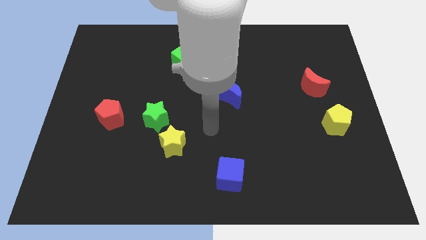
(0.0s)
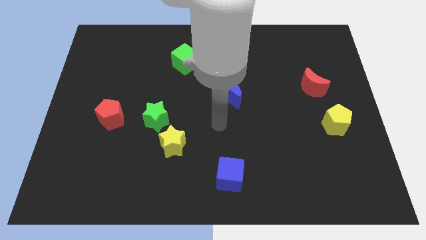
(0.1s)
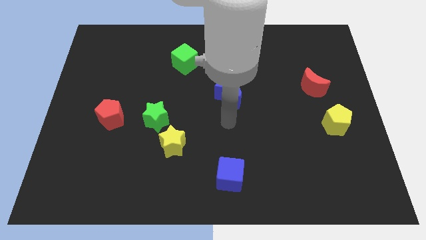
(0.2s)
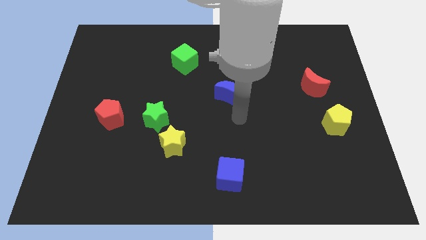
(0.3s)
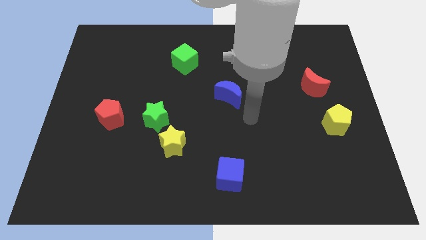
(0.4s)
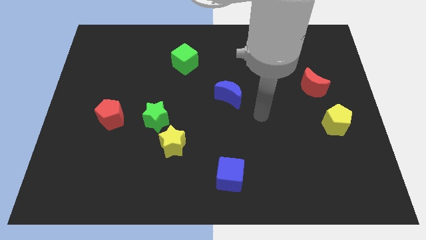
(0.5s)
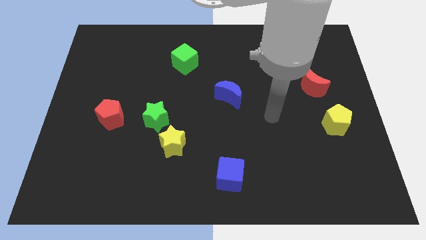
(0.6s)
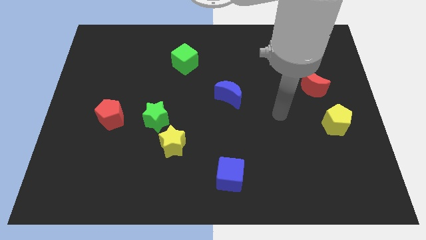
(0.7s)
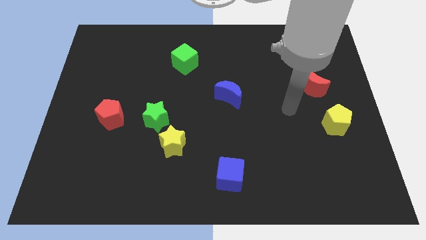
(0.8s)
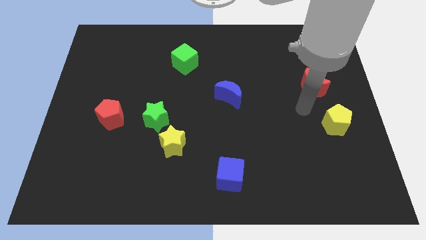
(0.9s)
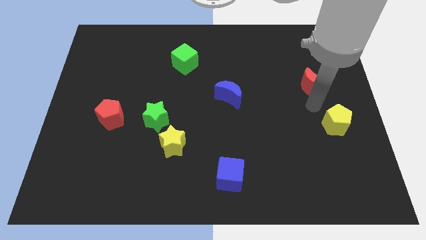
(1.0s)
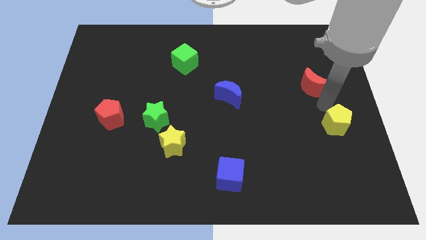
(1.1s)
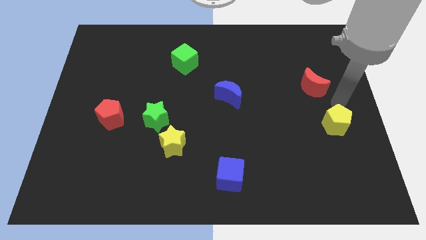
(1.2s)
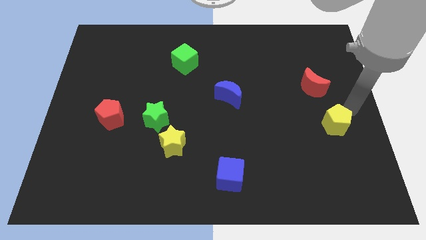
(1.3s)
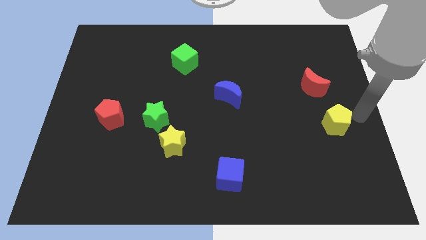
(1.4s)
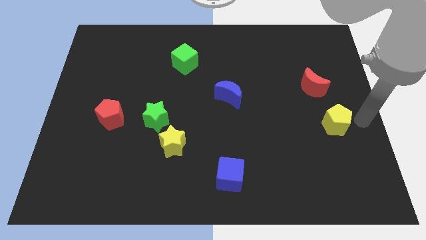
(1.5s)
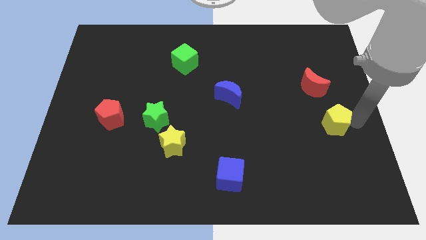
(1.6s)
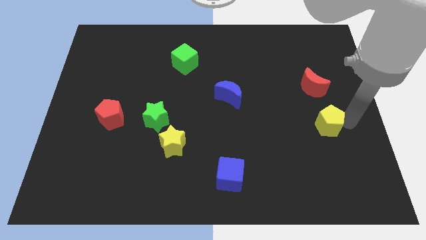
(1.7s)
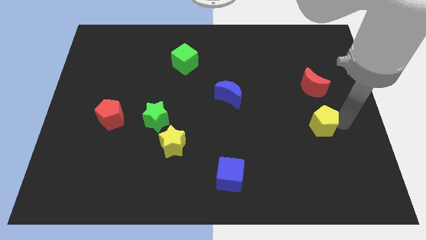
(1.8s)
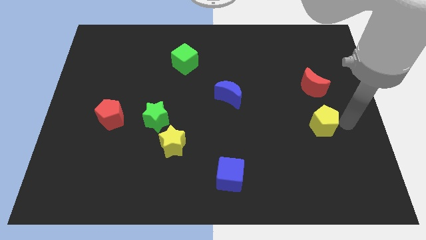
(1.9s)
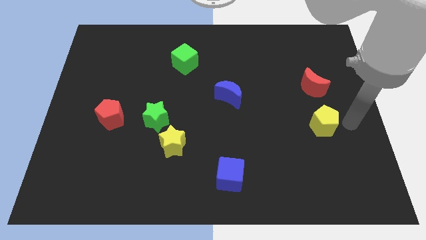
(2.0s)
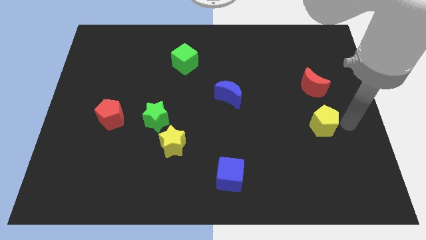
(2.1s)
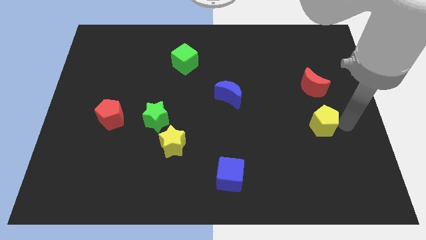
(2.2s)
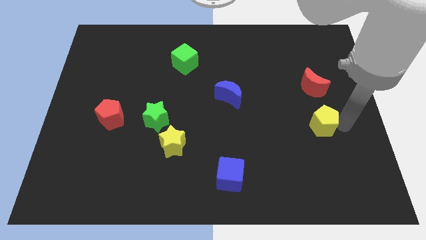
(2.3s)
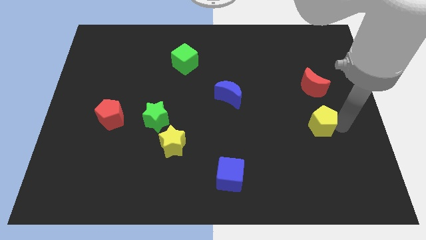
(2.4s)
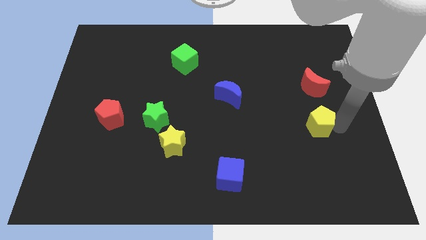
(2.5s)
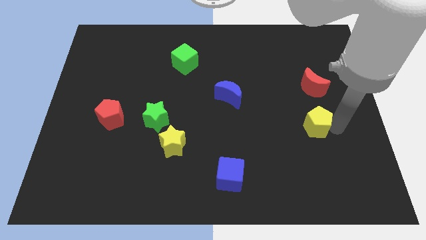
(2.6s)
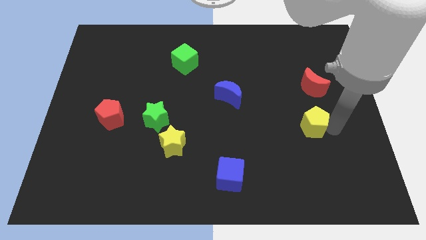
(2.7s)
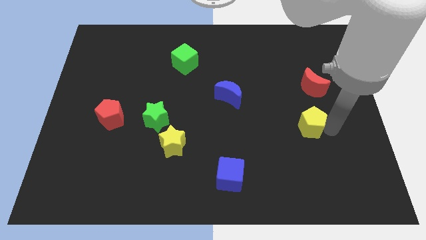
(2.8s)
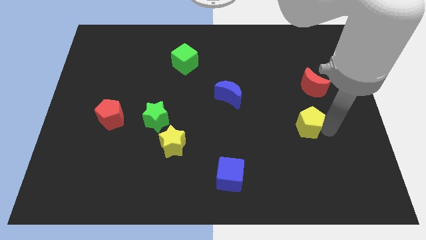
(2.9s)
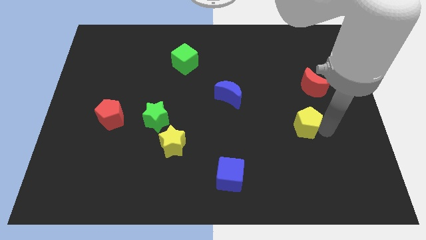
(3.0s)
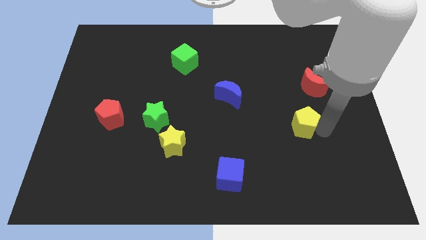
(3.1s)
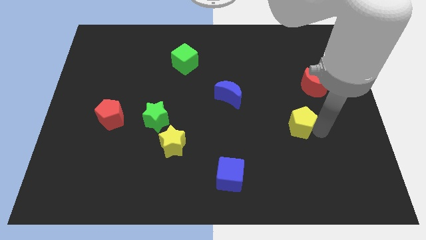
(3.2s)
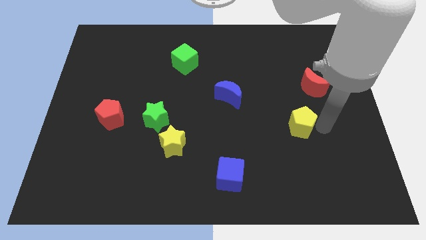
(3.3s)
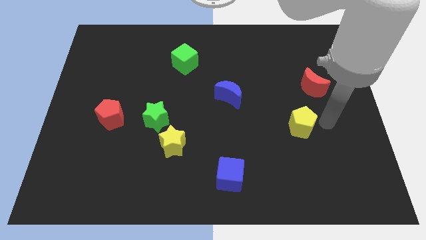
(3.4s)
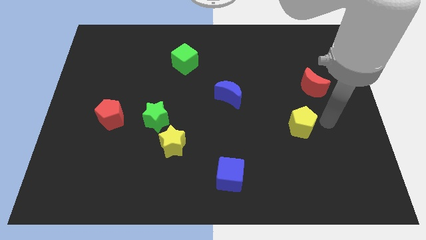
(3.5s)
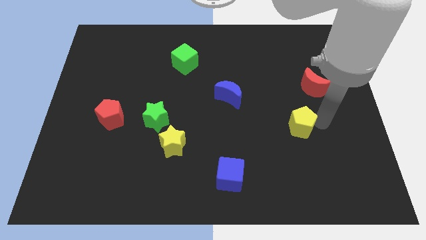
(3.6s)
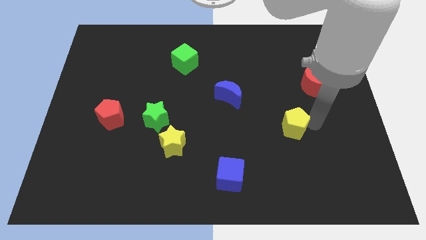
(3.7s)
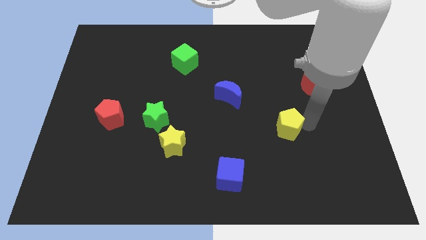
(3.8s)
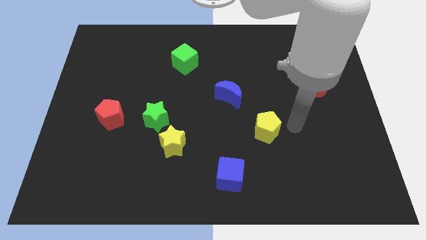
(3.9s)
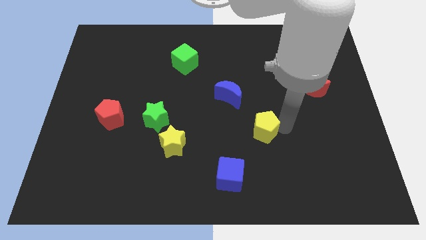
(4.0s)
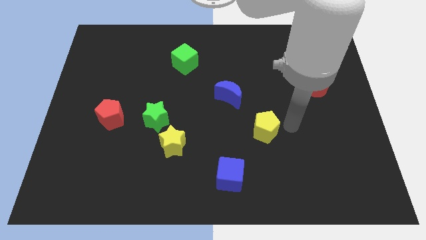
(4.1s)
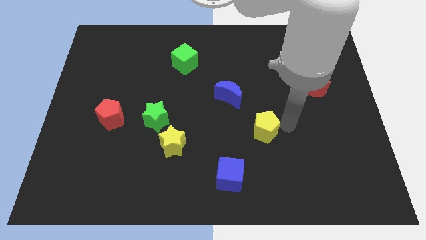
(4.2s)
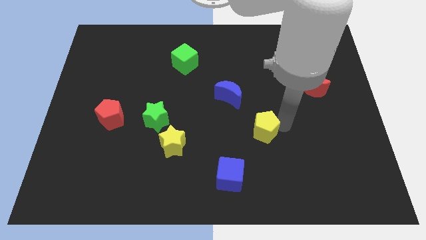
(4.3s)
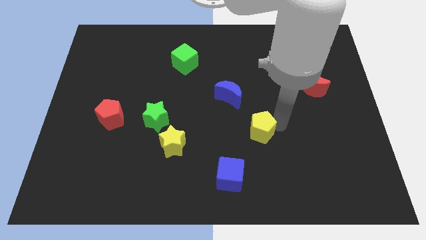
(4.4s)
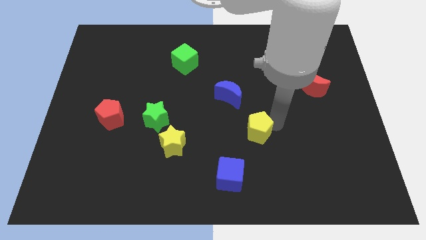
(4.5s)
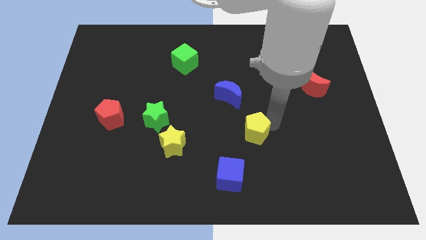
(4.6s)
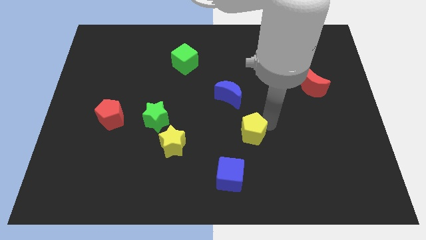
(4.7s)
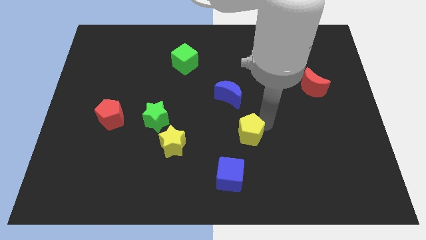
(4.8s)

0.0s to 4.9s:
slide the yellow pentagon to the top of the blue cube

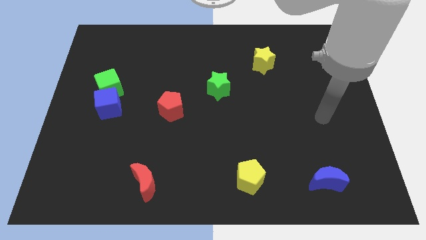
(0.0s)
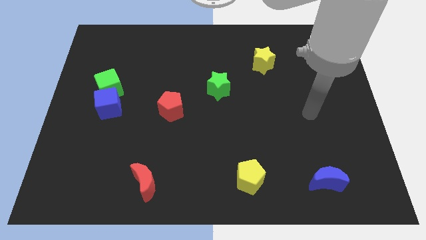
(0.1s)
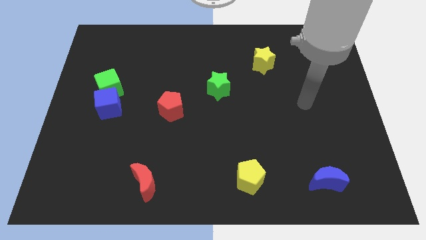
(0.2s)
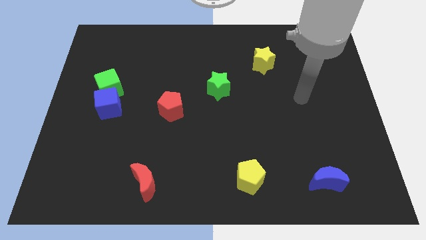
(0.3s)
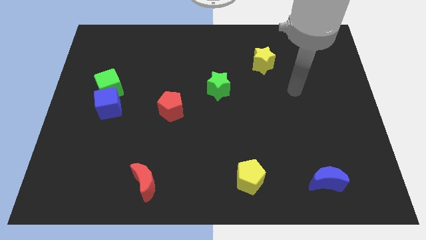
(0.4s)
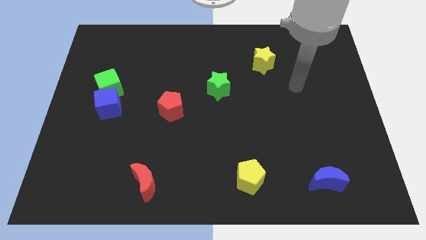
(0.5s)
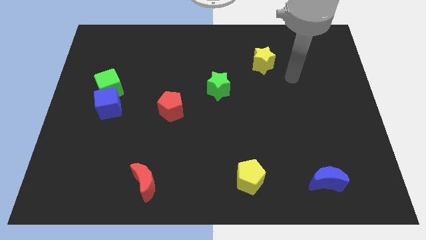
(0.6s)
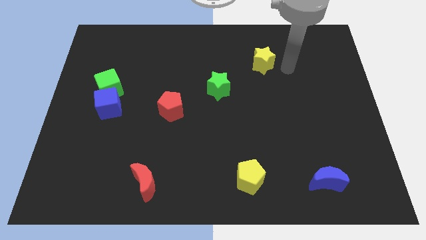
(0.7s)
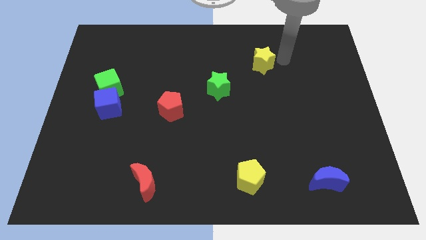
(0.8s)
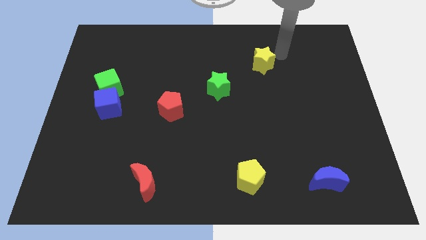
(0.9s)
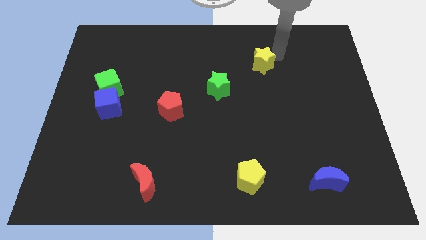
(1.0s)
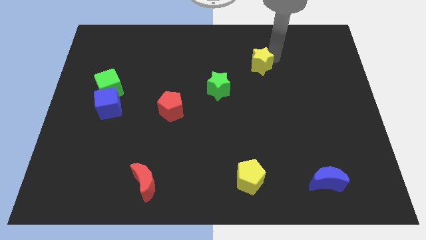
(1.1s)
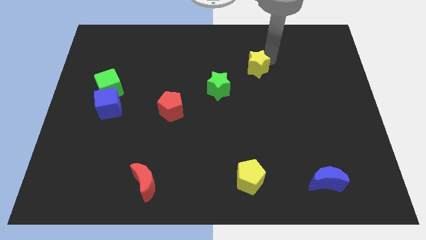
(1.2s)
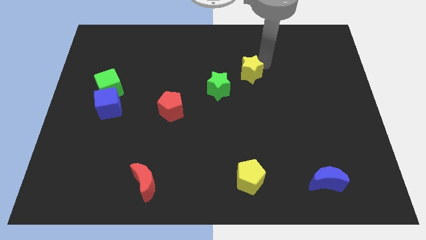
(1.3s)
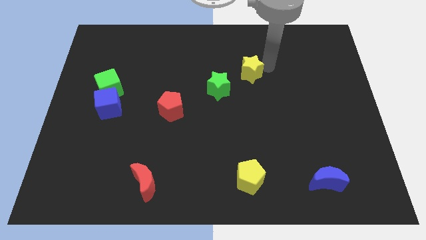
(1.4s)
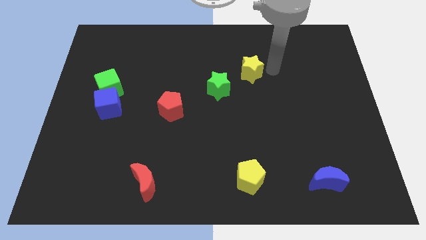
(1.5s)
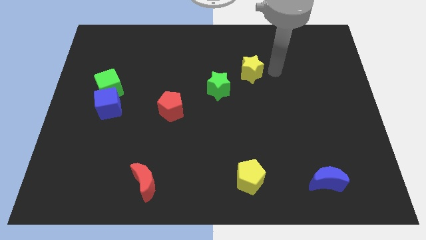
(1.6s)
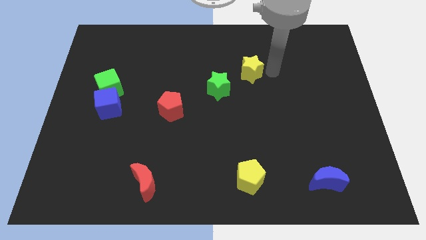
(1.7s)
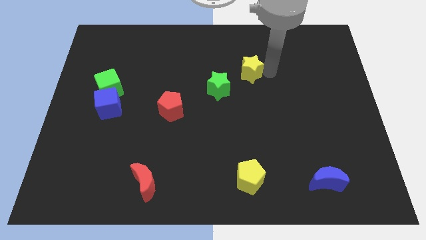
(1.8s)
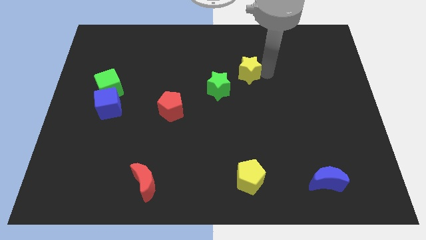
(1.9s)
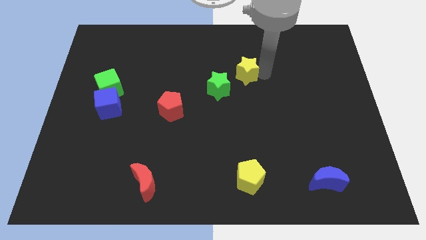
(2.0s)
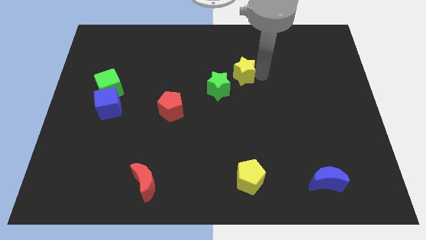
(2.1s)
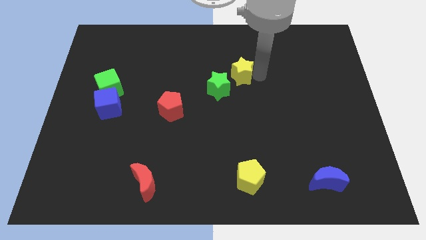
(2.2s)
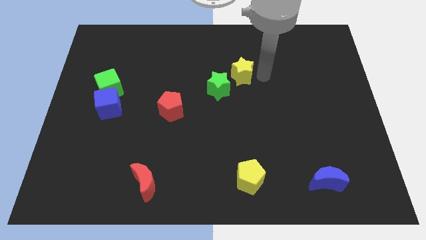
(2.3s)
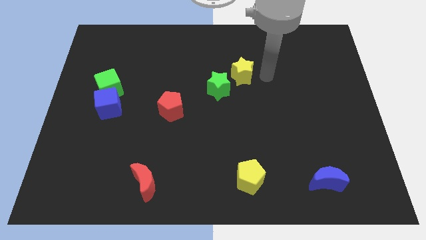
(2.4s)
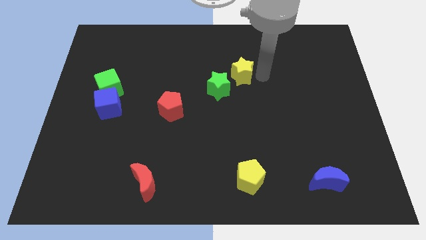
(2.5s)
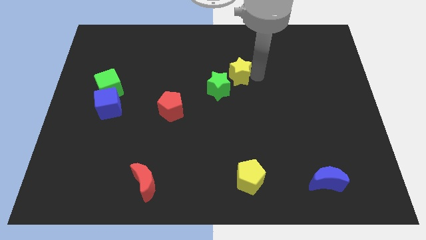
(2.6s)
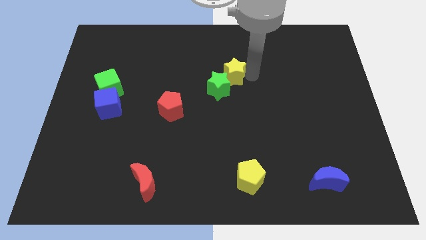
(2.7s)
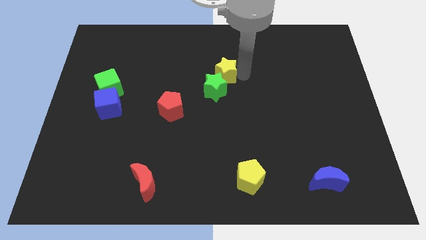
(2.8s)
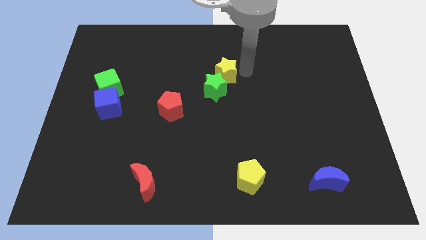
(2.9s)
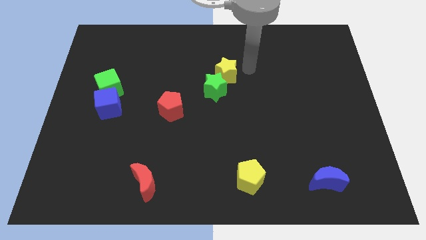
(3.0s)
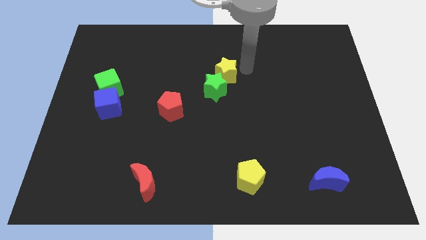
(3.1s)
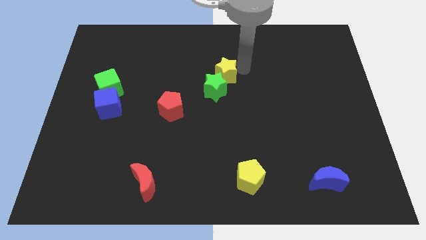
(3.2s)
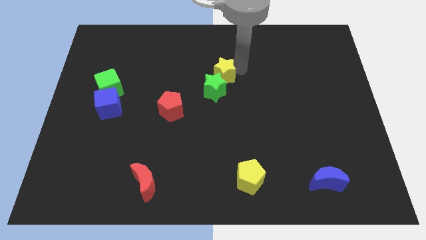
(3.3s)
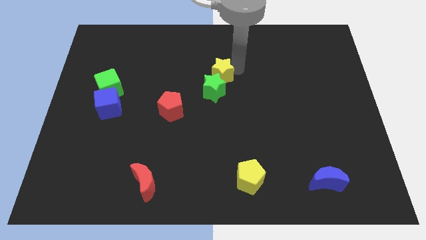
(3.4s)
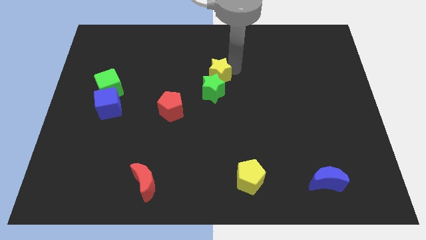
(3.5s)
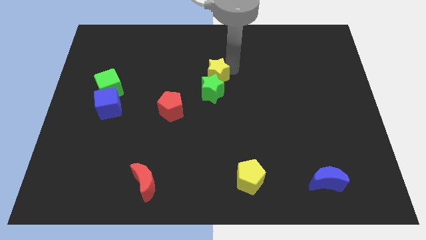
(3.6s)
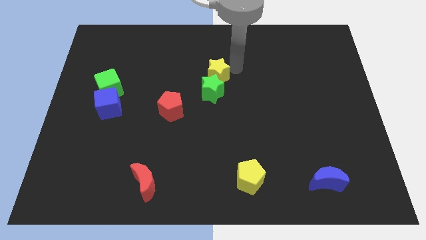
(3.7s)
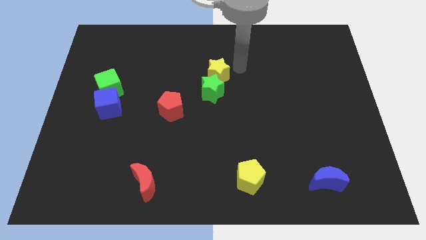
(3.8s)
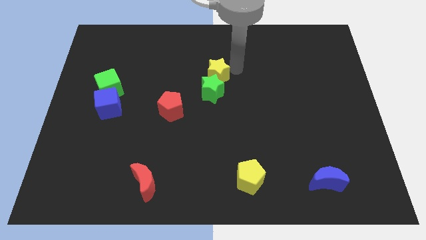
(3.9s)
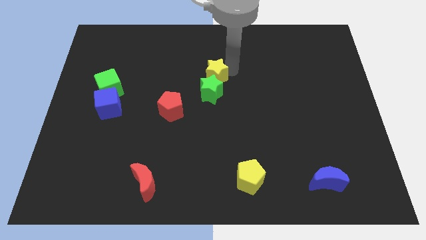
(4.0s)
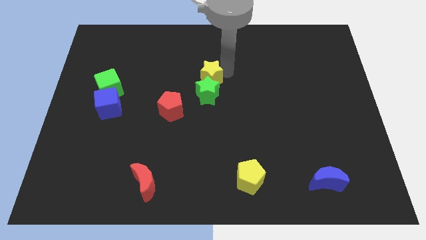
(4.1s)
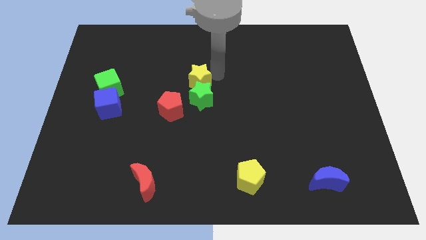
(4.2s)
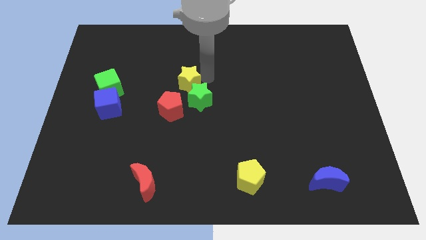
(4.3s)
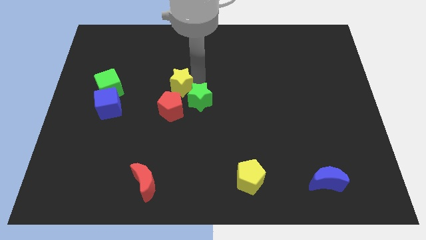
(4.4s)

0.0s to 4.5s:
move the yellow star to the left of the green star
